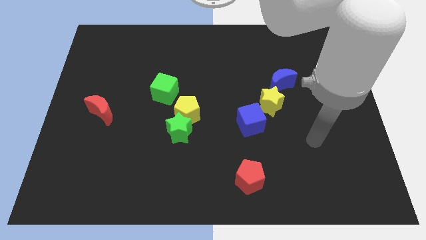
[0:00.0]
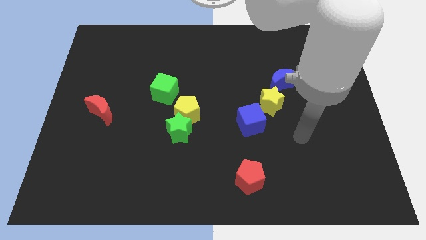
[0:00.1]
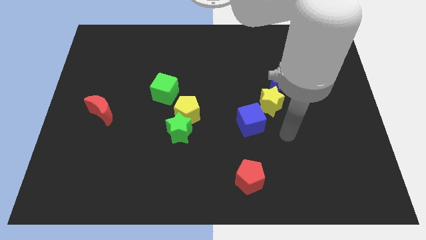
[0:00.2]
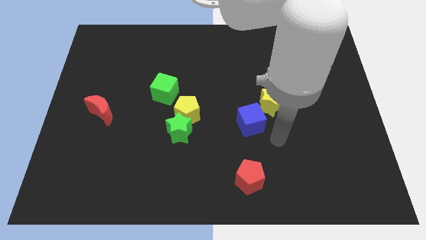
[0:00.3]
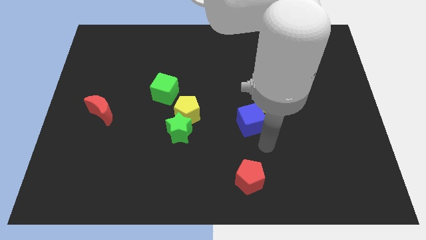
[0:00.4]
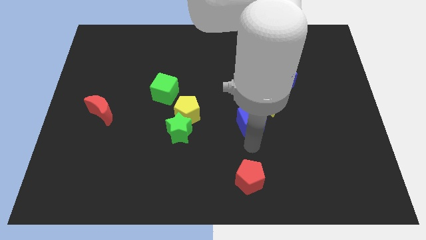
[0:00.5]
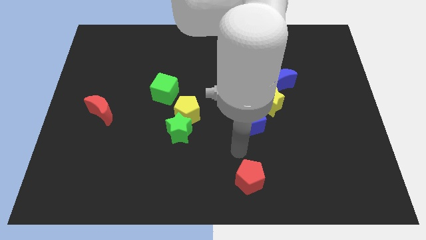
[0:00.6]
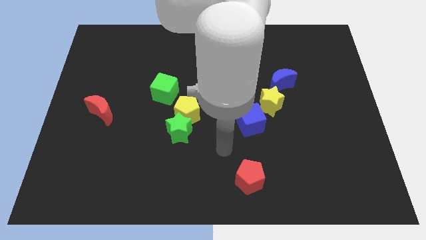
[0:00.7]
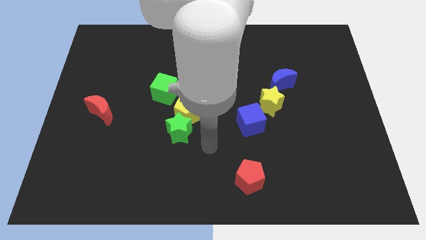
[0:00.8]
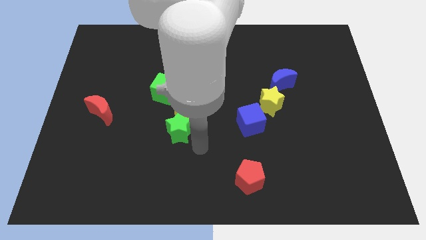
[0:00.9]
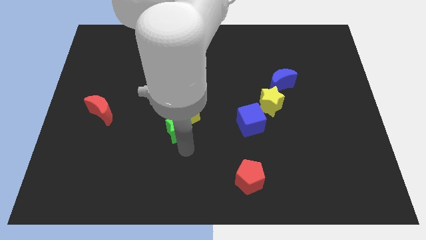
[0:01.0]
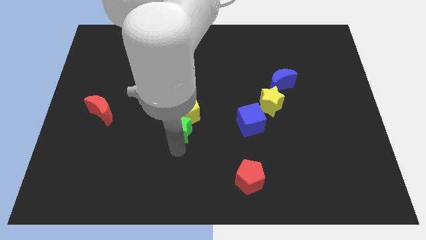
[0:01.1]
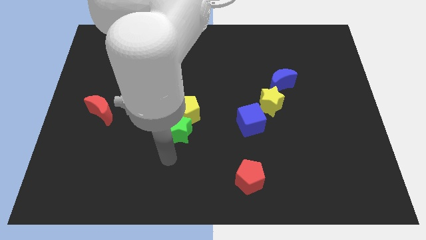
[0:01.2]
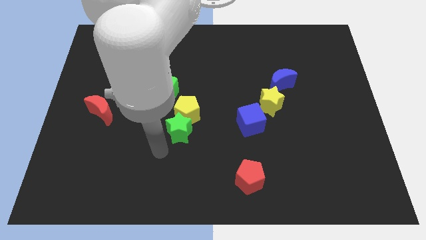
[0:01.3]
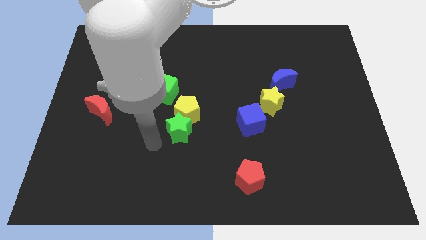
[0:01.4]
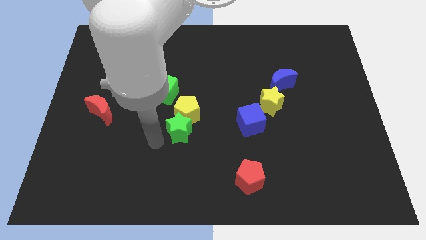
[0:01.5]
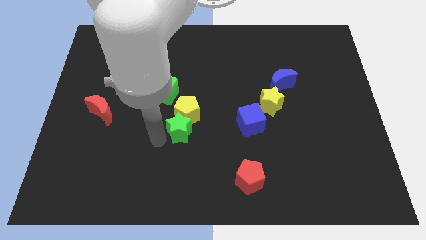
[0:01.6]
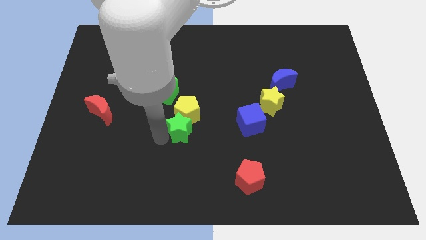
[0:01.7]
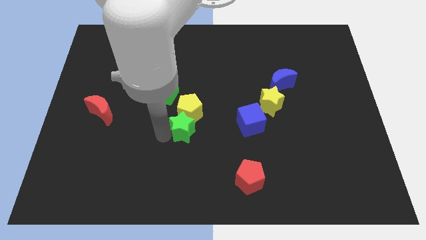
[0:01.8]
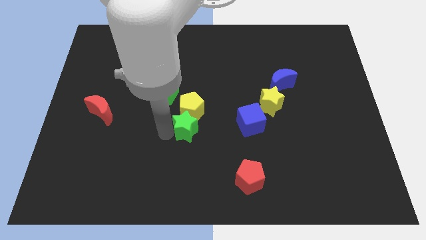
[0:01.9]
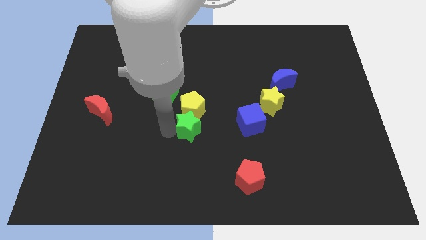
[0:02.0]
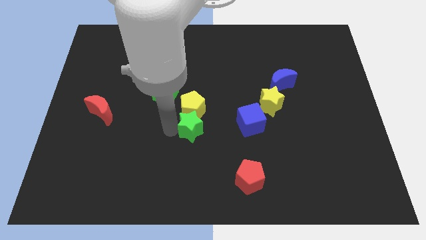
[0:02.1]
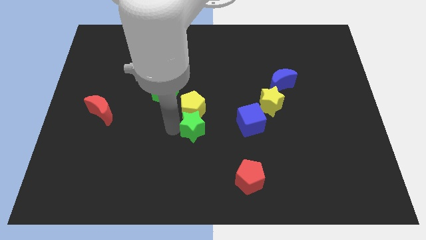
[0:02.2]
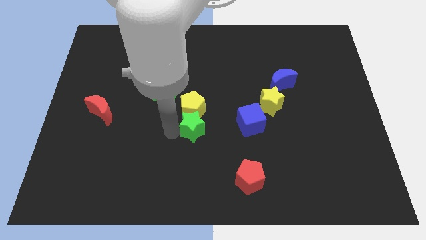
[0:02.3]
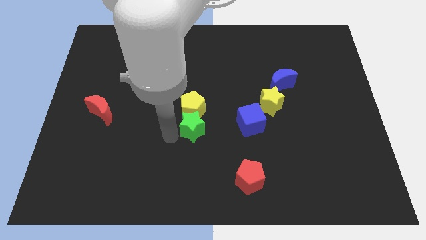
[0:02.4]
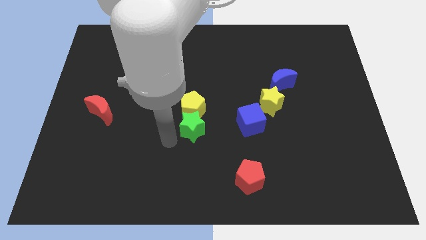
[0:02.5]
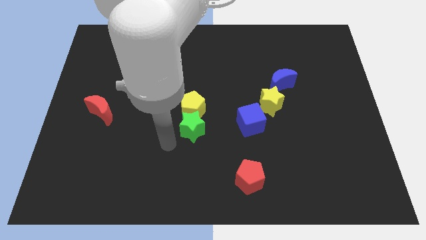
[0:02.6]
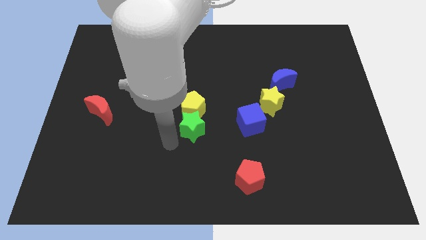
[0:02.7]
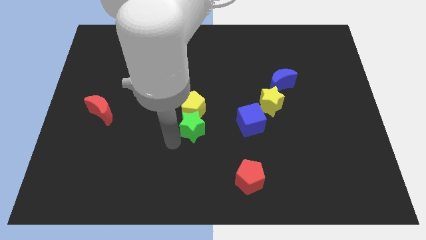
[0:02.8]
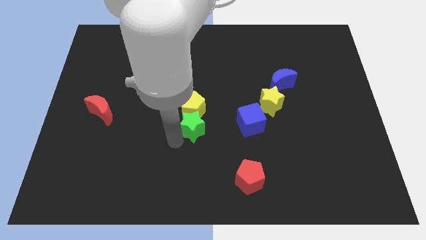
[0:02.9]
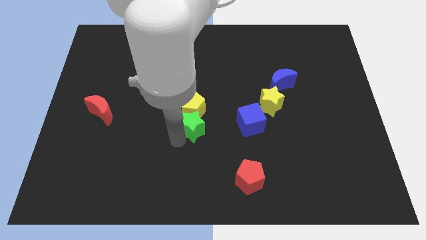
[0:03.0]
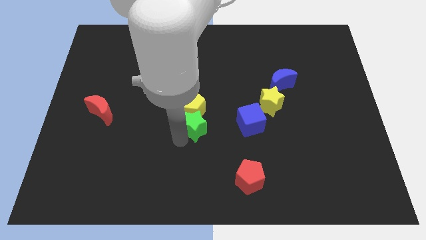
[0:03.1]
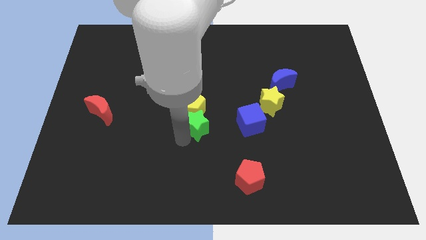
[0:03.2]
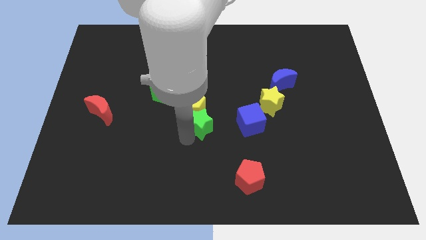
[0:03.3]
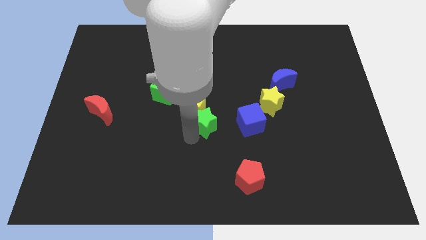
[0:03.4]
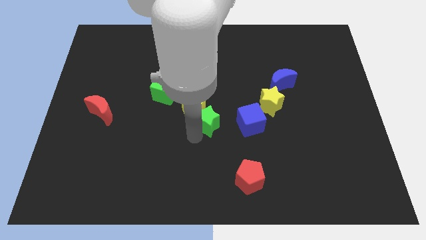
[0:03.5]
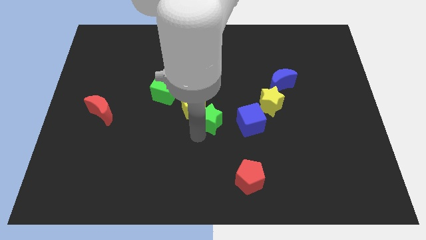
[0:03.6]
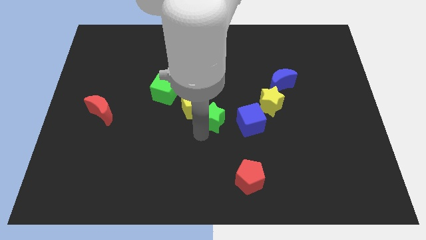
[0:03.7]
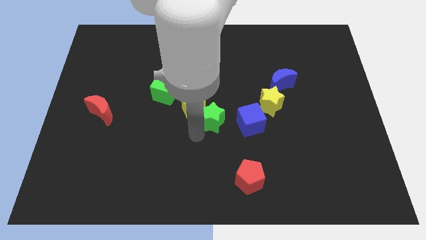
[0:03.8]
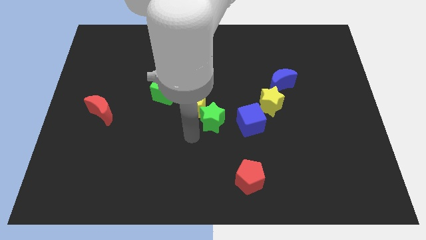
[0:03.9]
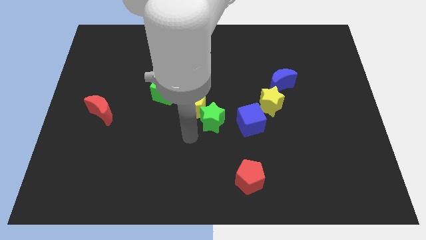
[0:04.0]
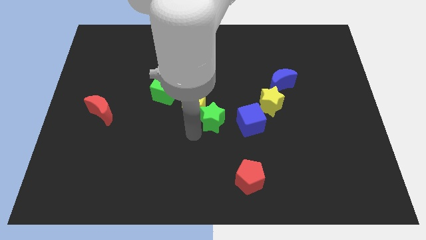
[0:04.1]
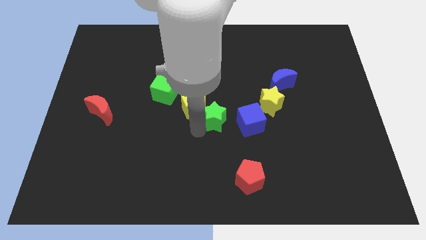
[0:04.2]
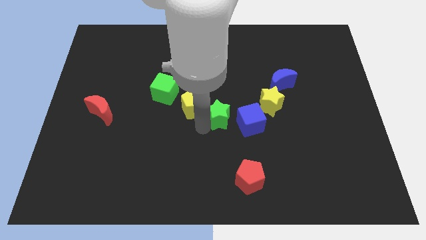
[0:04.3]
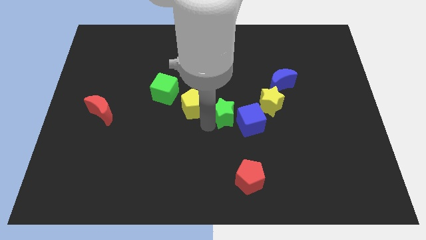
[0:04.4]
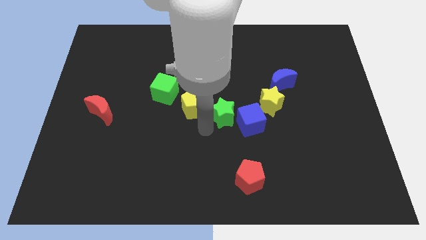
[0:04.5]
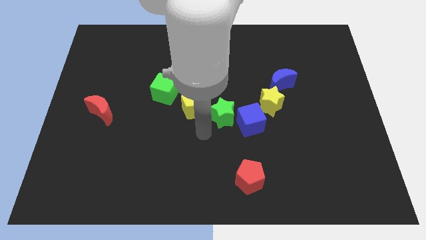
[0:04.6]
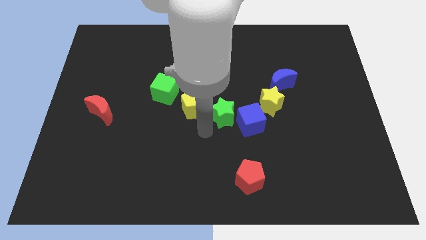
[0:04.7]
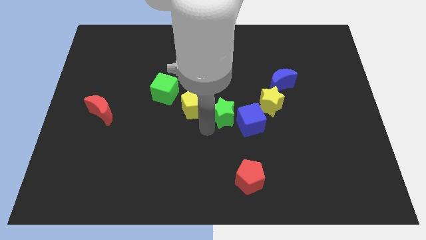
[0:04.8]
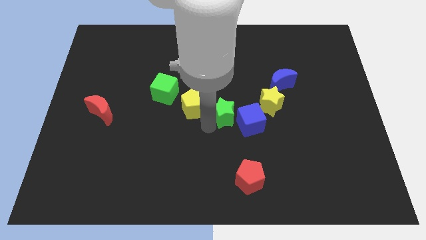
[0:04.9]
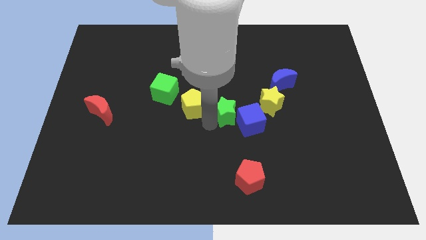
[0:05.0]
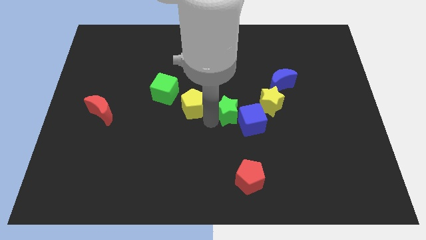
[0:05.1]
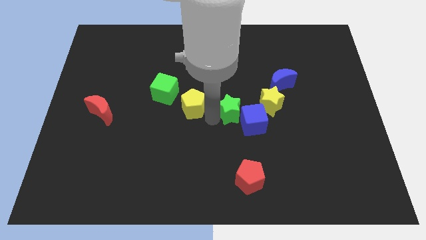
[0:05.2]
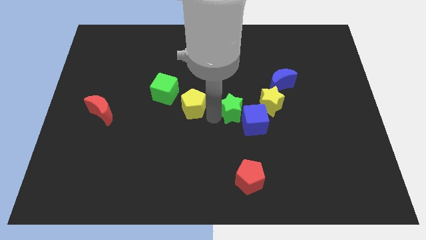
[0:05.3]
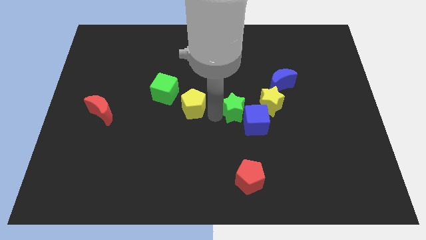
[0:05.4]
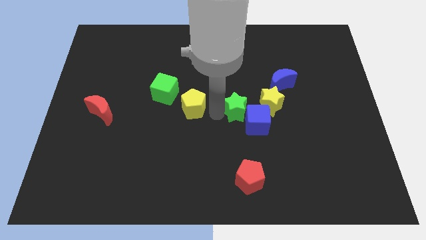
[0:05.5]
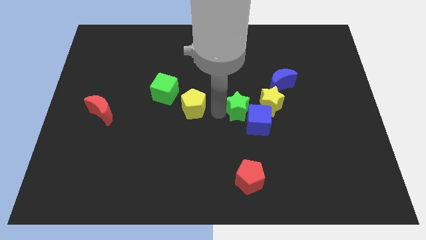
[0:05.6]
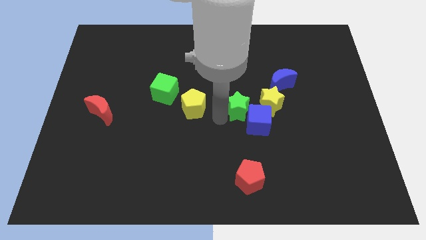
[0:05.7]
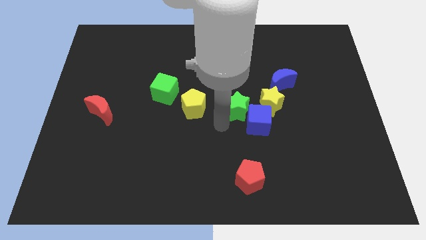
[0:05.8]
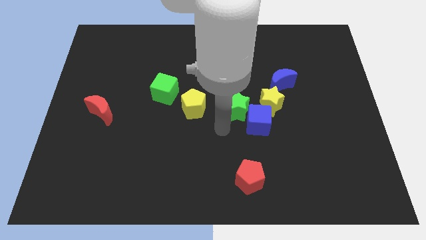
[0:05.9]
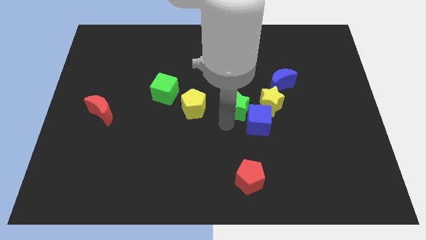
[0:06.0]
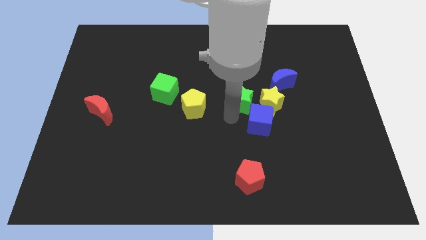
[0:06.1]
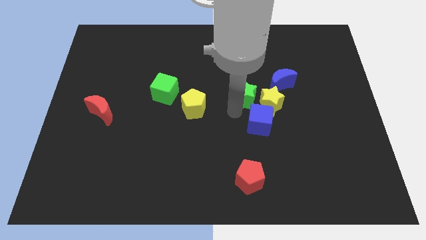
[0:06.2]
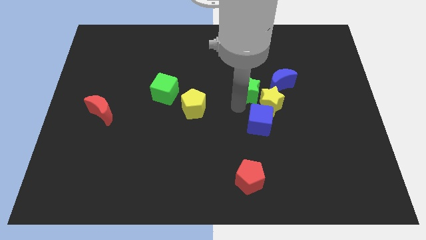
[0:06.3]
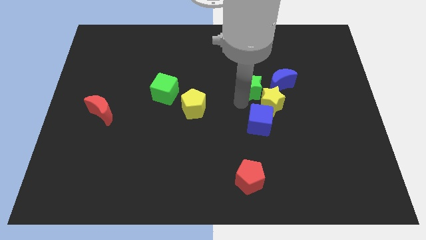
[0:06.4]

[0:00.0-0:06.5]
move the green star diagonally up and to the right

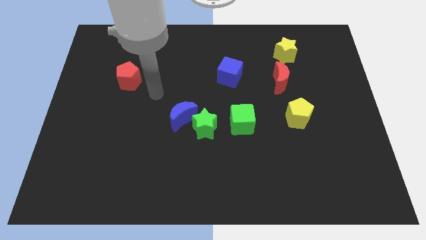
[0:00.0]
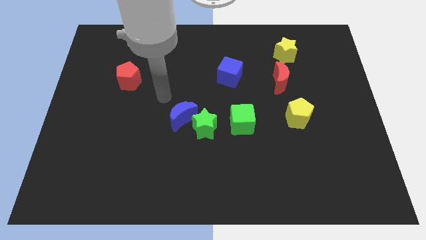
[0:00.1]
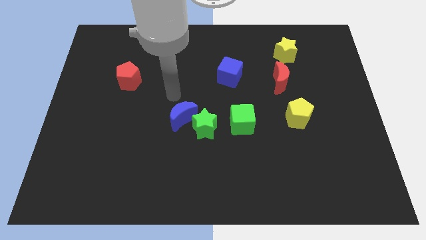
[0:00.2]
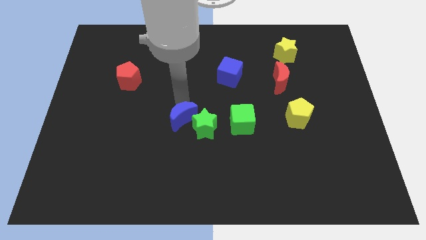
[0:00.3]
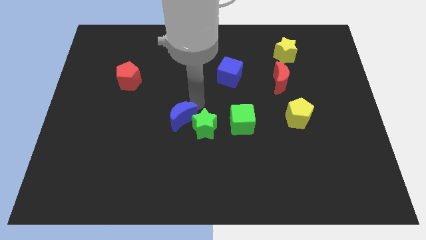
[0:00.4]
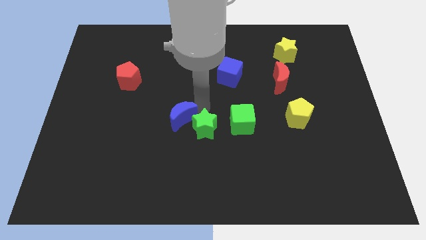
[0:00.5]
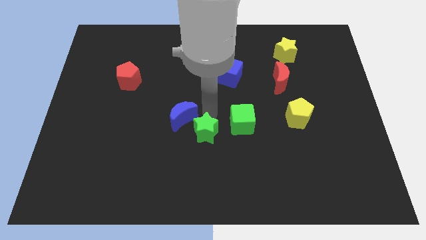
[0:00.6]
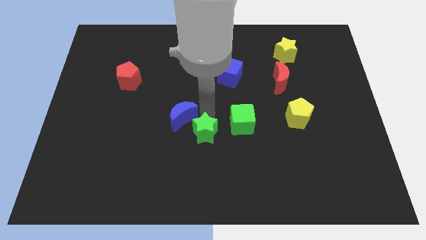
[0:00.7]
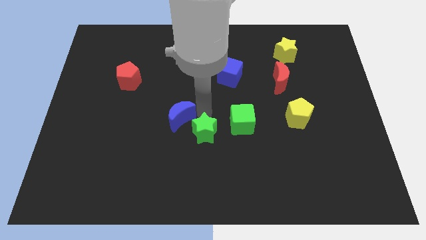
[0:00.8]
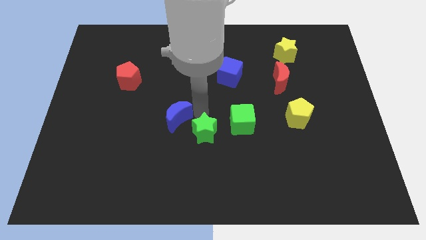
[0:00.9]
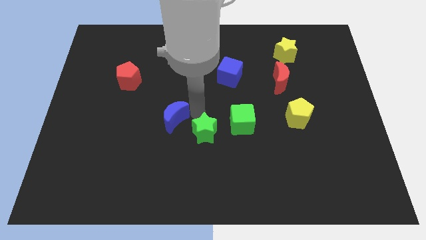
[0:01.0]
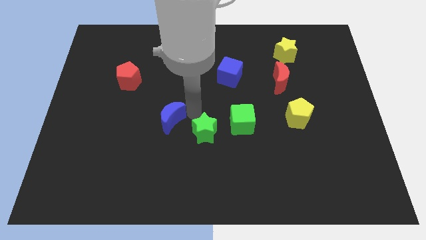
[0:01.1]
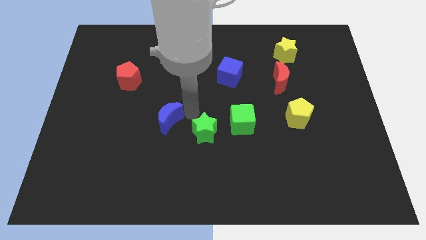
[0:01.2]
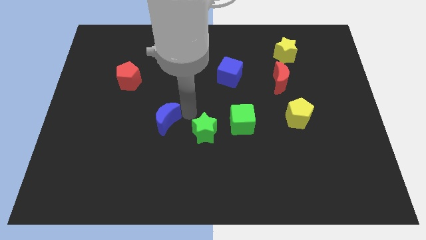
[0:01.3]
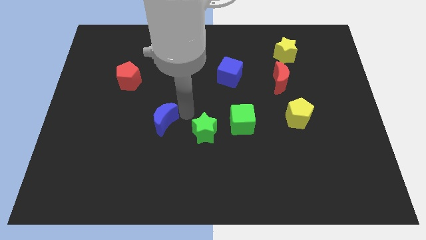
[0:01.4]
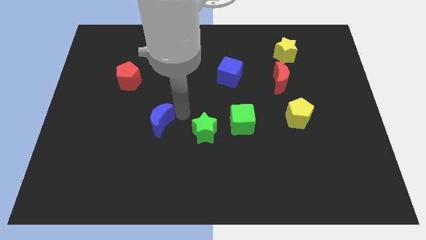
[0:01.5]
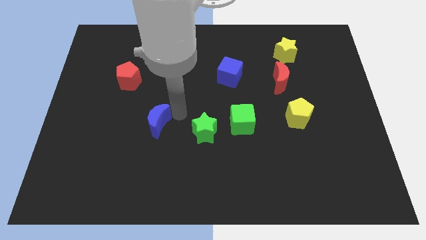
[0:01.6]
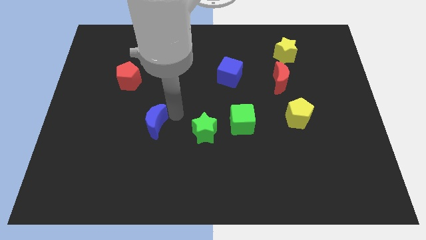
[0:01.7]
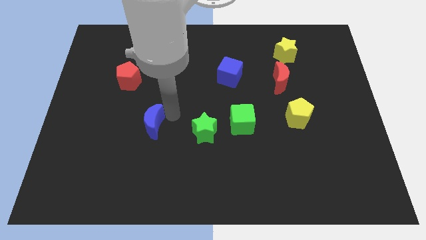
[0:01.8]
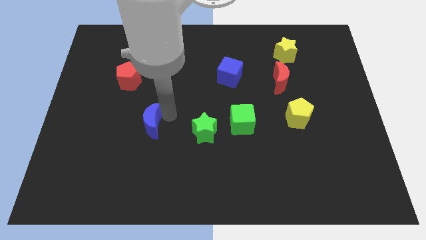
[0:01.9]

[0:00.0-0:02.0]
move the blue moon to the left a little
